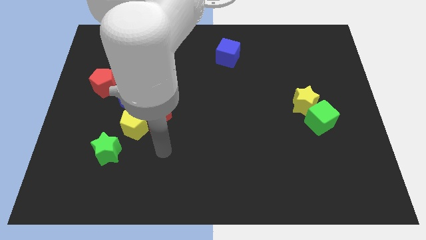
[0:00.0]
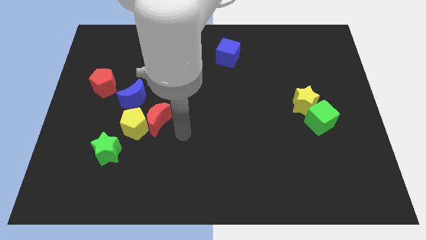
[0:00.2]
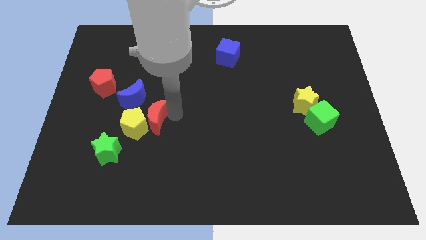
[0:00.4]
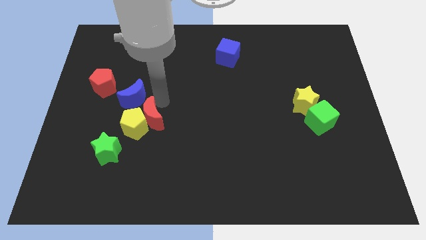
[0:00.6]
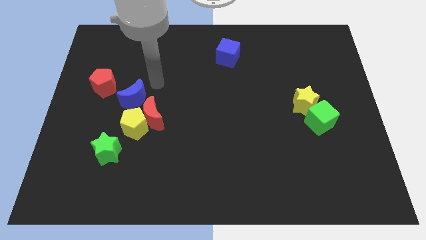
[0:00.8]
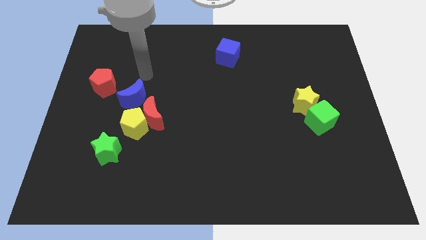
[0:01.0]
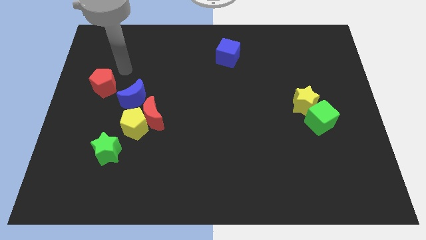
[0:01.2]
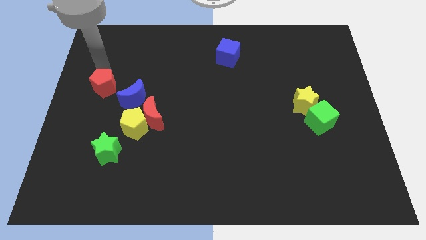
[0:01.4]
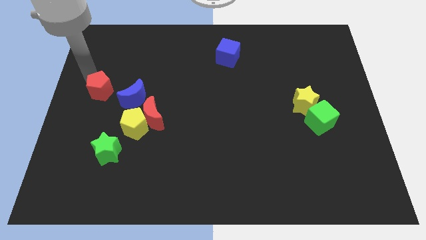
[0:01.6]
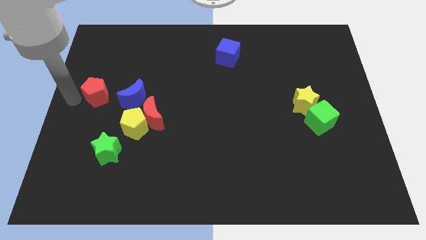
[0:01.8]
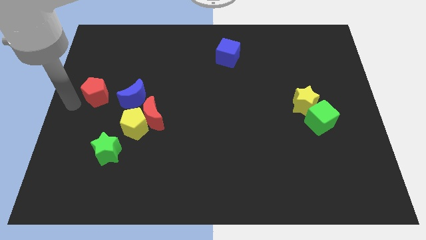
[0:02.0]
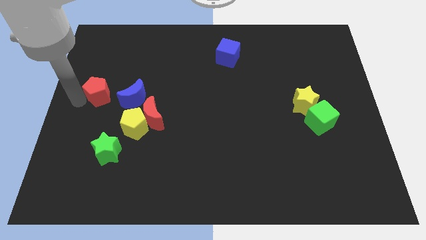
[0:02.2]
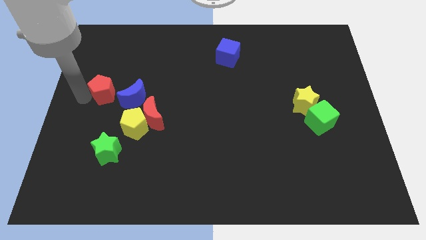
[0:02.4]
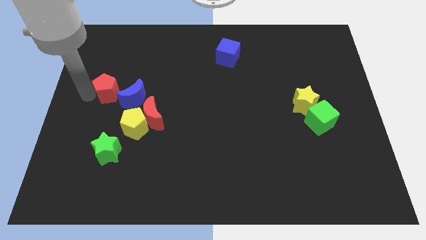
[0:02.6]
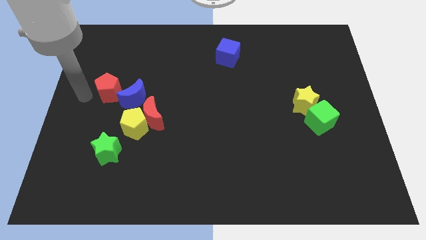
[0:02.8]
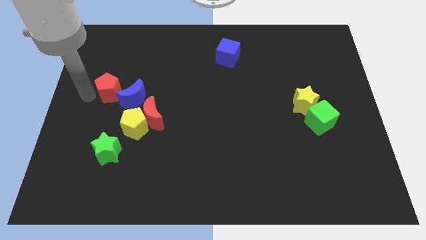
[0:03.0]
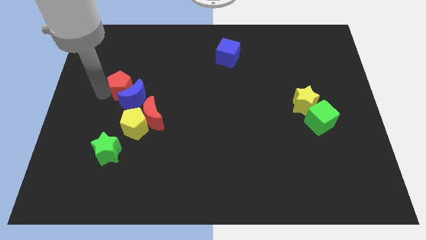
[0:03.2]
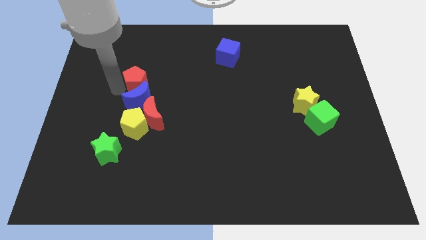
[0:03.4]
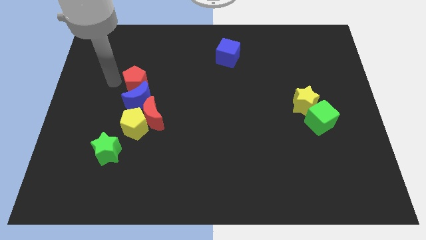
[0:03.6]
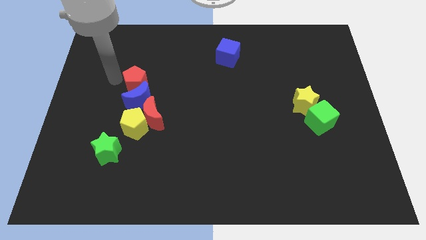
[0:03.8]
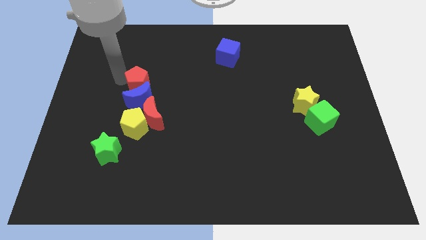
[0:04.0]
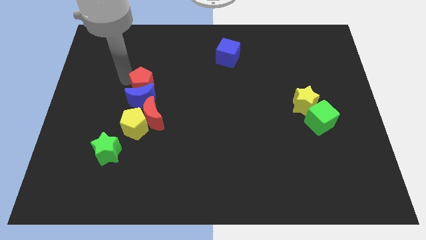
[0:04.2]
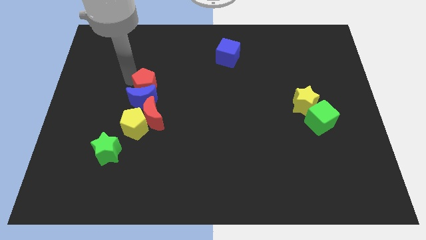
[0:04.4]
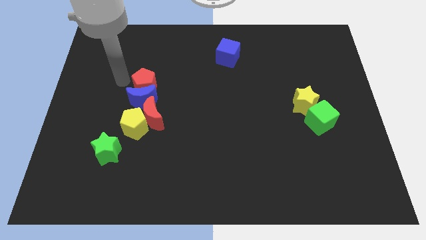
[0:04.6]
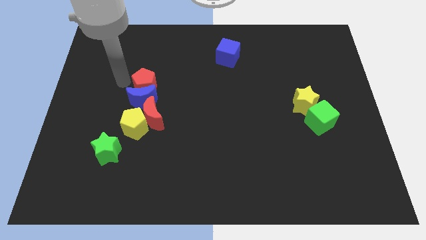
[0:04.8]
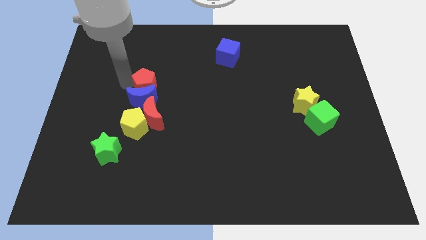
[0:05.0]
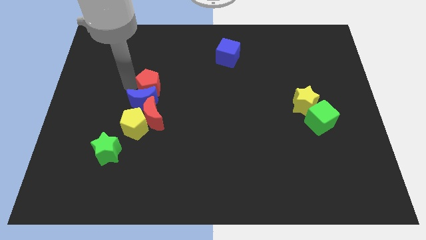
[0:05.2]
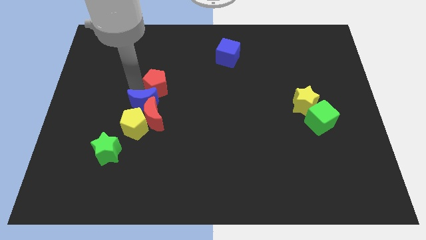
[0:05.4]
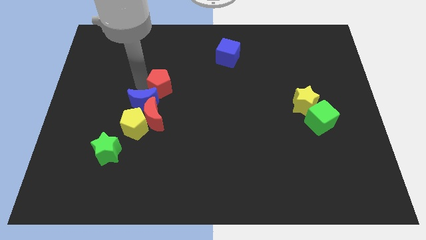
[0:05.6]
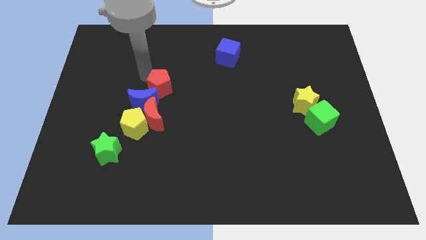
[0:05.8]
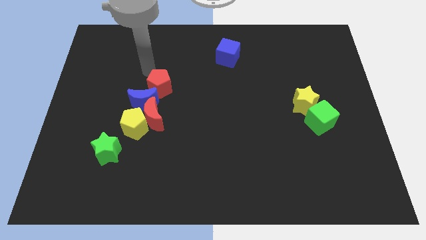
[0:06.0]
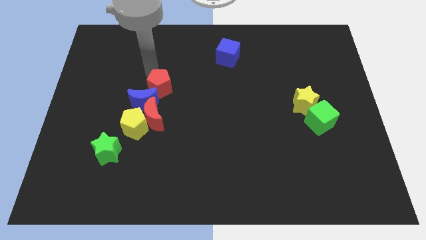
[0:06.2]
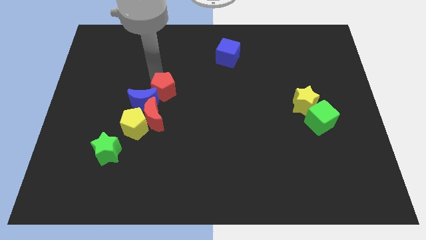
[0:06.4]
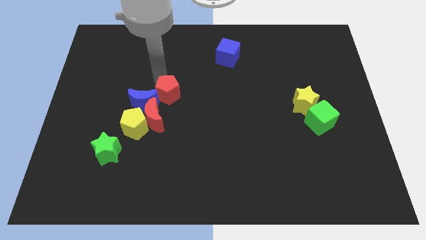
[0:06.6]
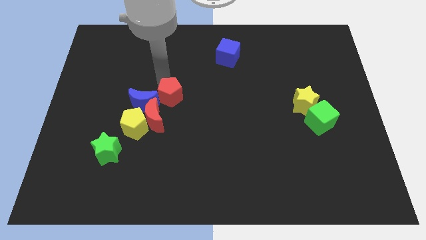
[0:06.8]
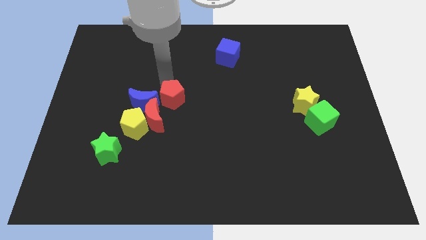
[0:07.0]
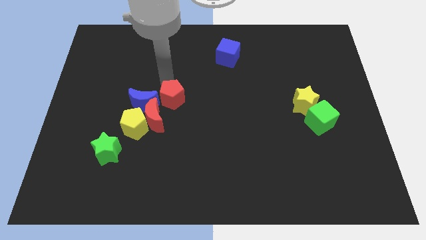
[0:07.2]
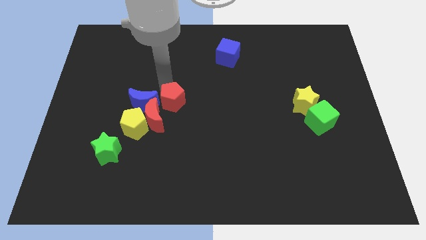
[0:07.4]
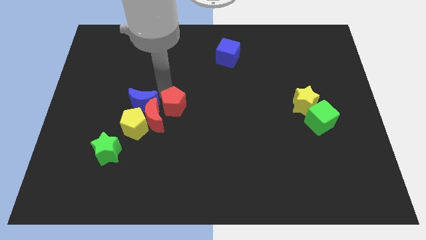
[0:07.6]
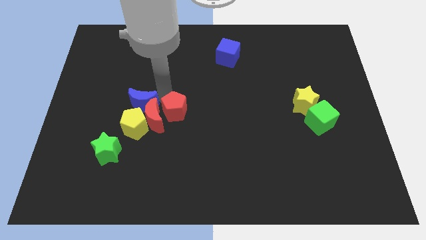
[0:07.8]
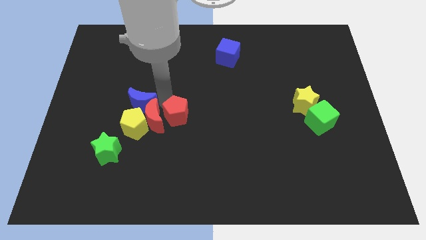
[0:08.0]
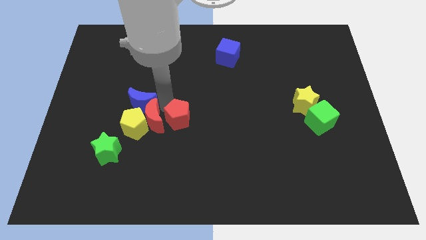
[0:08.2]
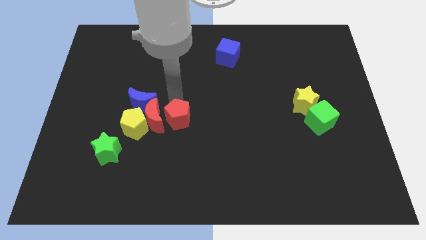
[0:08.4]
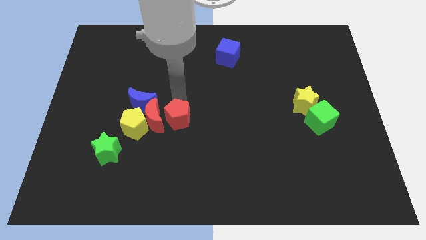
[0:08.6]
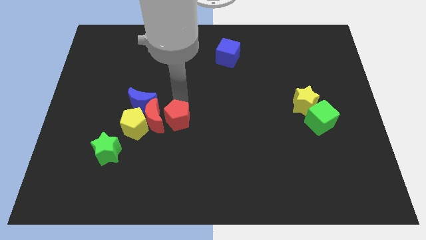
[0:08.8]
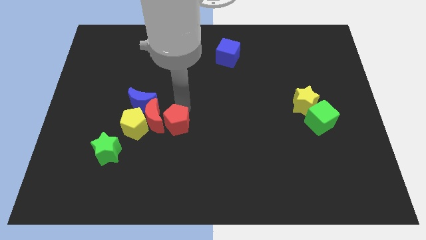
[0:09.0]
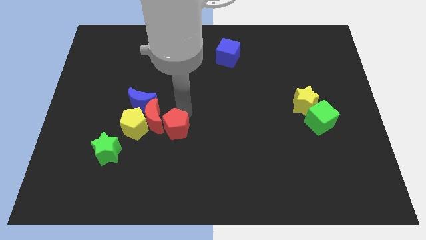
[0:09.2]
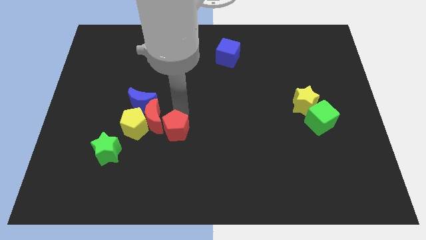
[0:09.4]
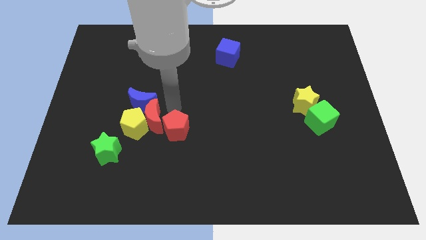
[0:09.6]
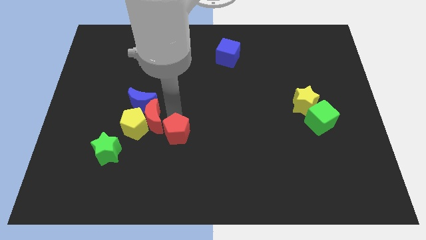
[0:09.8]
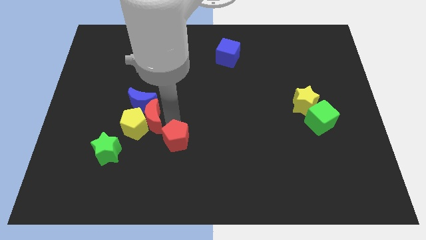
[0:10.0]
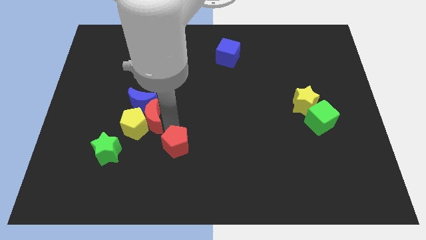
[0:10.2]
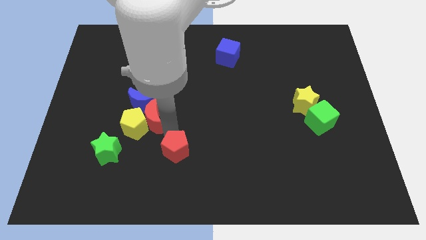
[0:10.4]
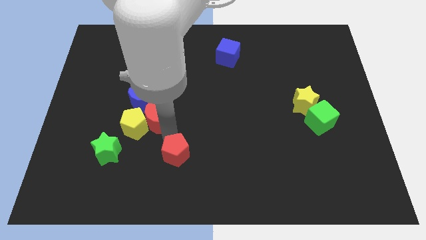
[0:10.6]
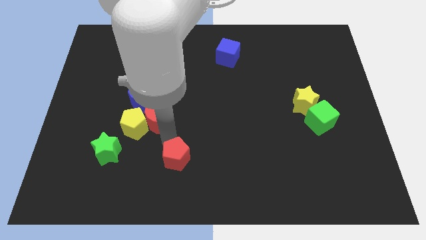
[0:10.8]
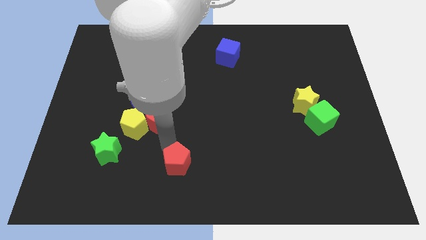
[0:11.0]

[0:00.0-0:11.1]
slide the red pentagon to the bottom side
